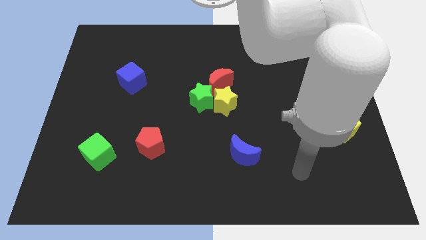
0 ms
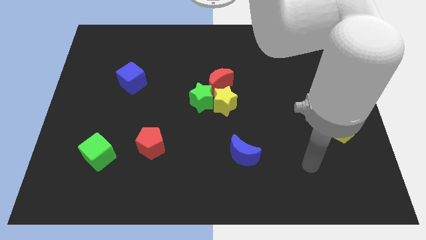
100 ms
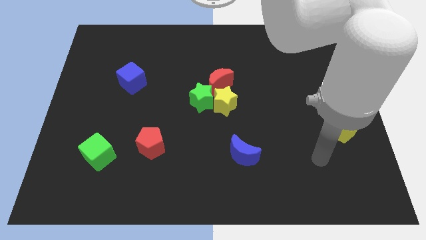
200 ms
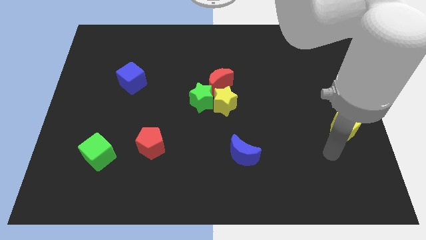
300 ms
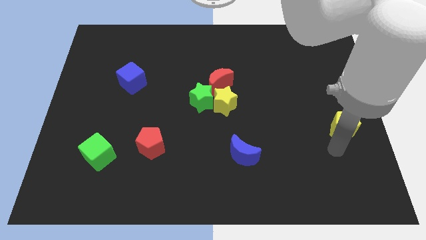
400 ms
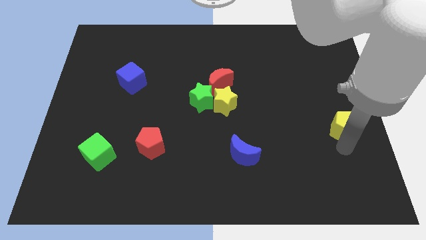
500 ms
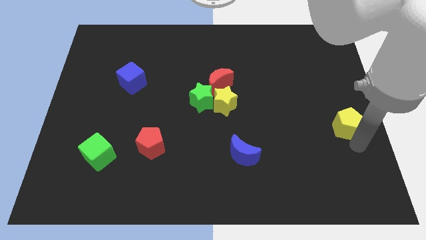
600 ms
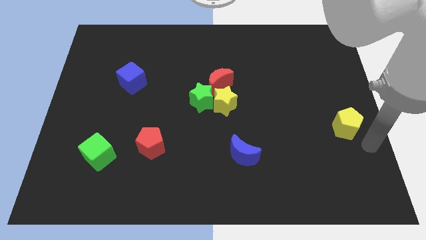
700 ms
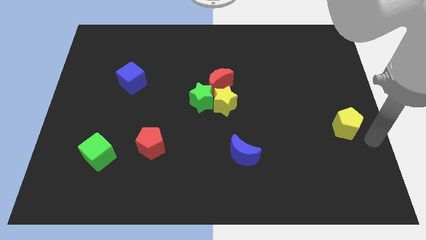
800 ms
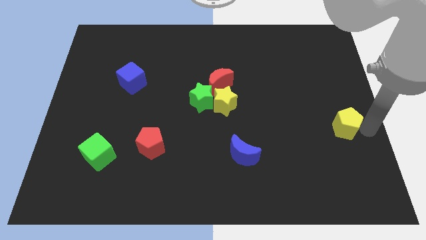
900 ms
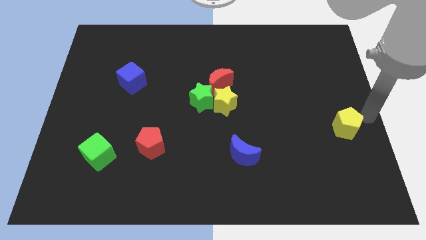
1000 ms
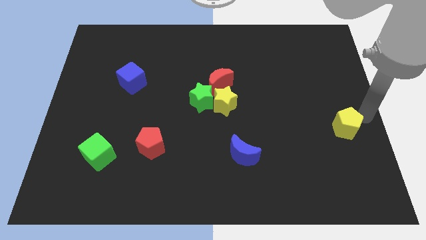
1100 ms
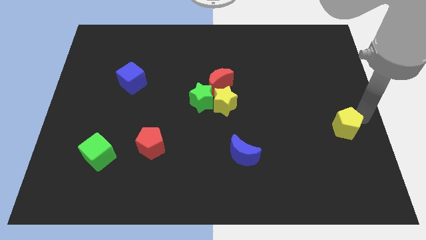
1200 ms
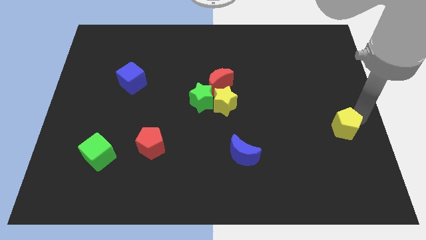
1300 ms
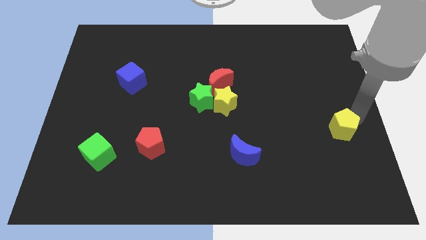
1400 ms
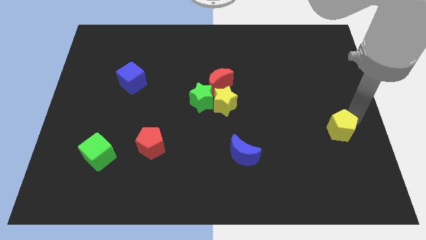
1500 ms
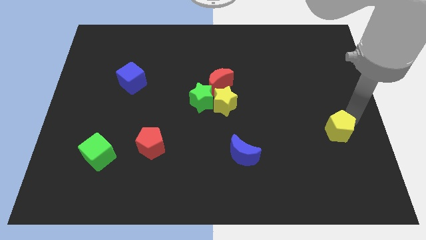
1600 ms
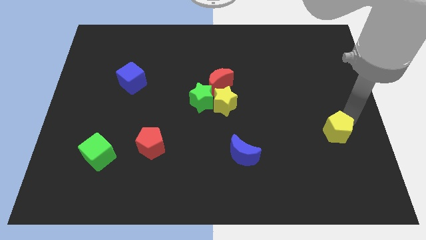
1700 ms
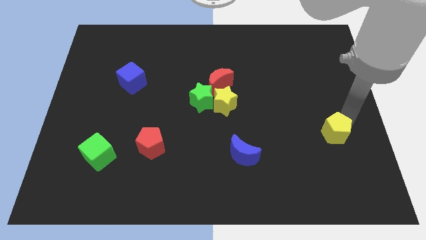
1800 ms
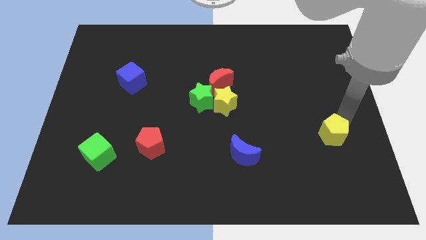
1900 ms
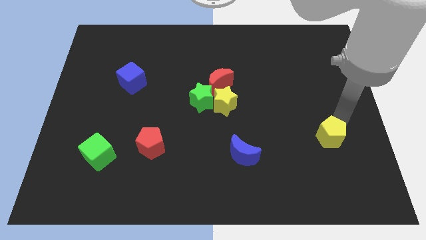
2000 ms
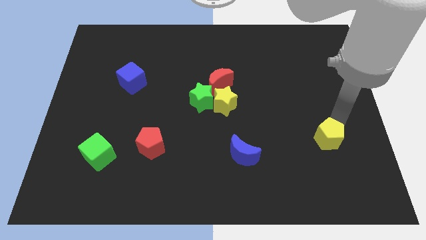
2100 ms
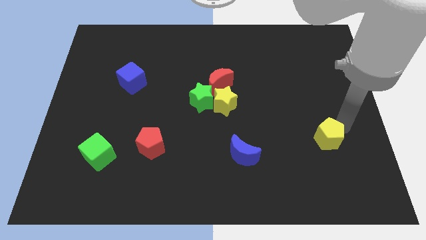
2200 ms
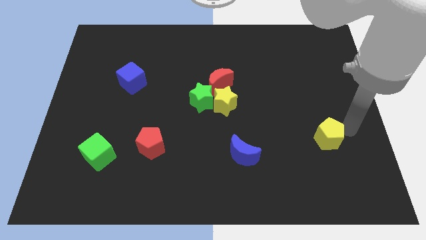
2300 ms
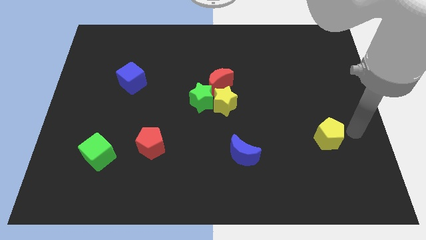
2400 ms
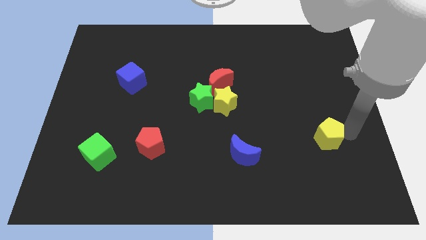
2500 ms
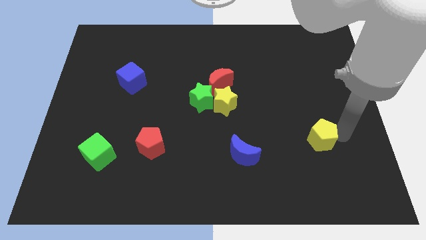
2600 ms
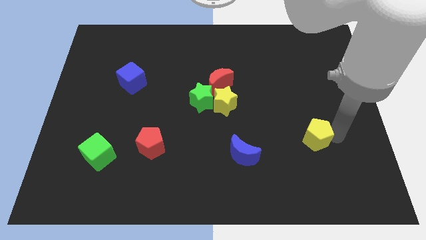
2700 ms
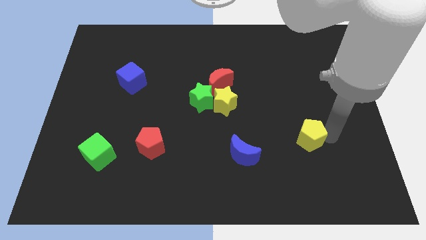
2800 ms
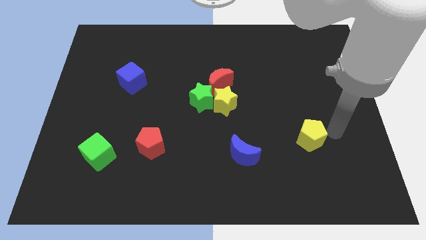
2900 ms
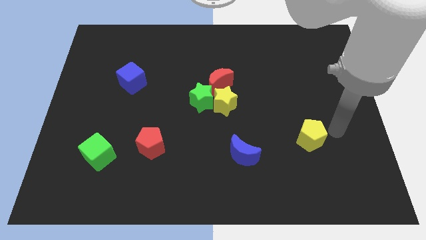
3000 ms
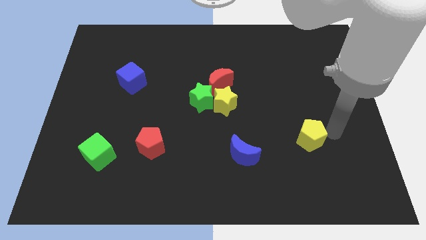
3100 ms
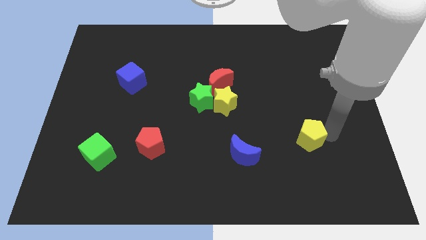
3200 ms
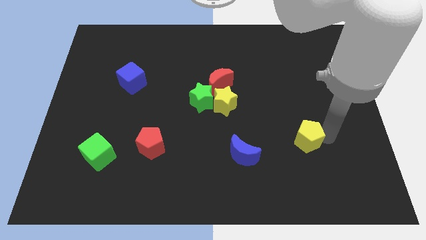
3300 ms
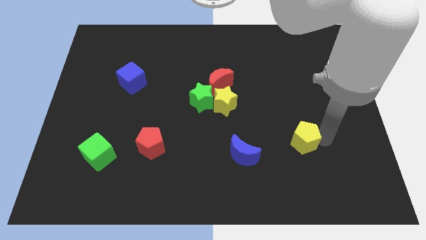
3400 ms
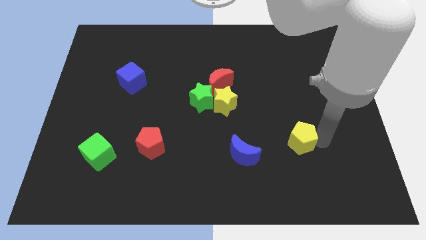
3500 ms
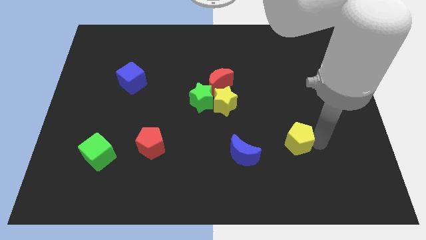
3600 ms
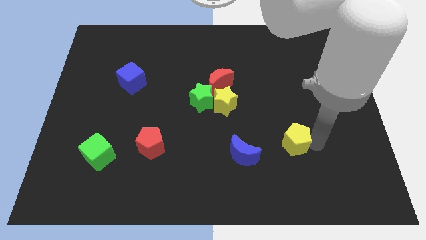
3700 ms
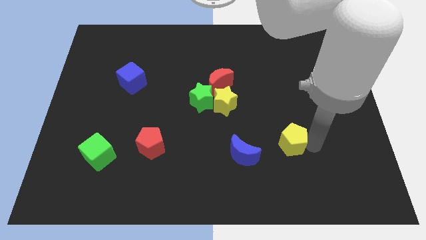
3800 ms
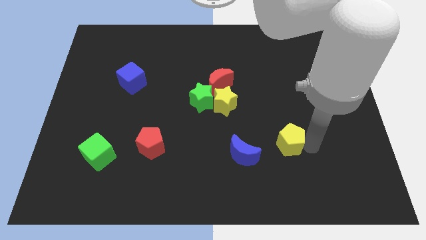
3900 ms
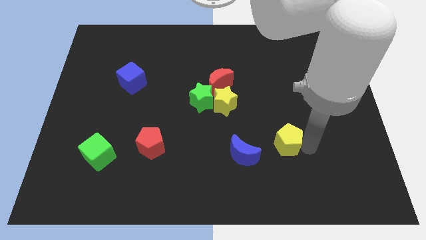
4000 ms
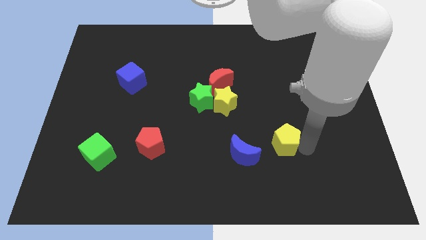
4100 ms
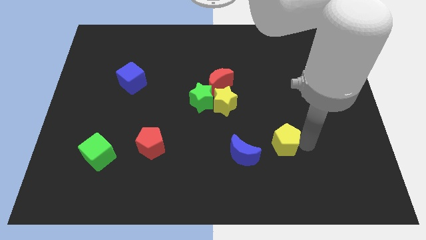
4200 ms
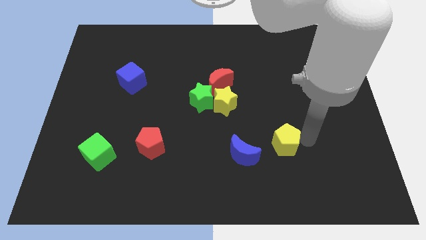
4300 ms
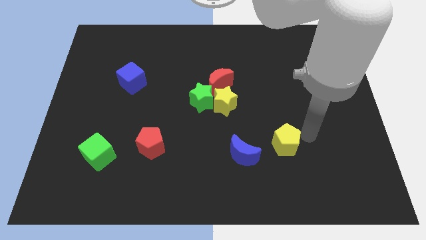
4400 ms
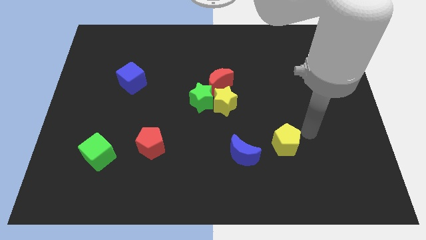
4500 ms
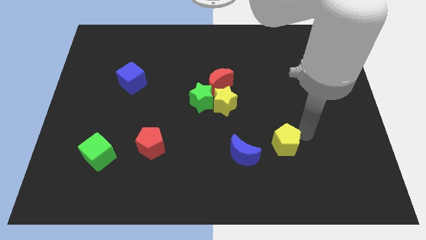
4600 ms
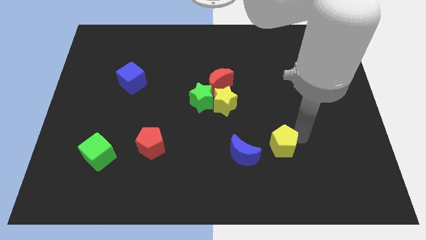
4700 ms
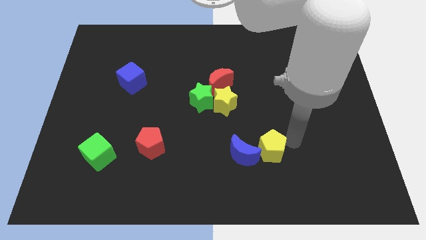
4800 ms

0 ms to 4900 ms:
put the yellow pentagon next to the blue moon

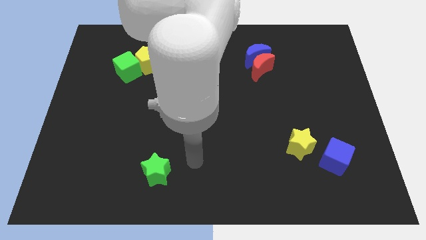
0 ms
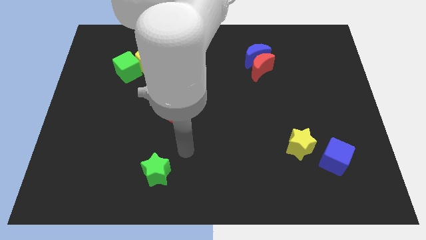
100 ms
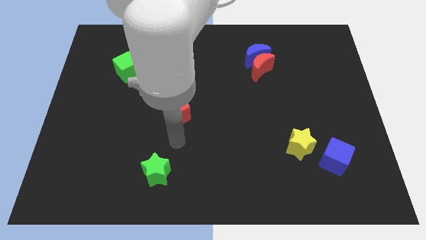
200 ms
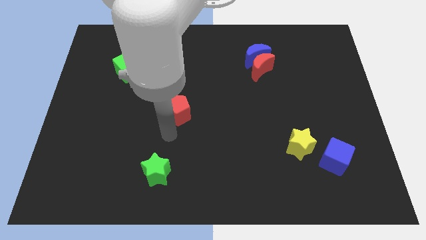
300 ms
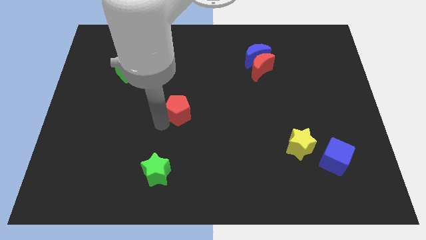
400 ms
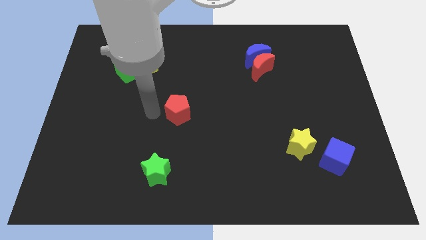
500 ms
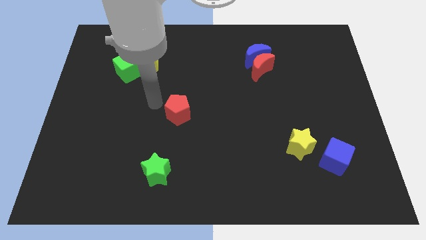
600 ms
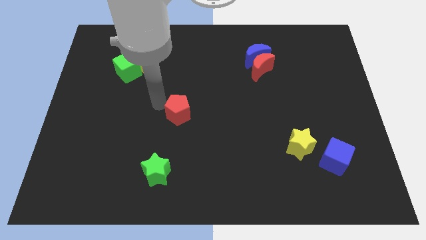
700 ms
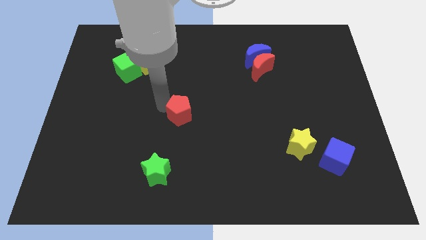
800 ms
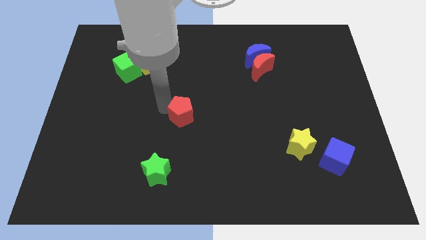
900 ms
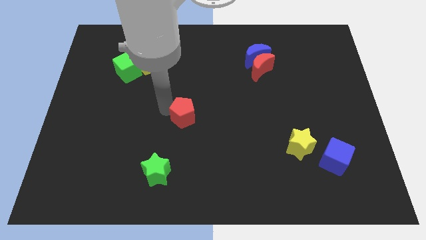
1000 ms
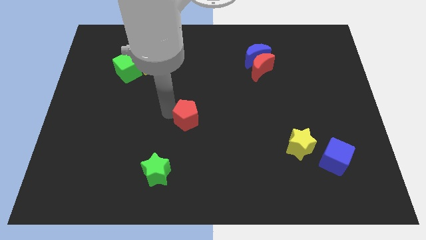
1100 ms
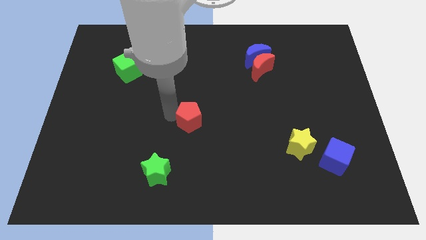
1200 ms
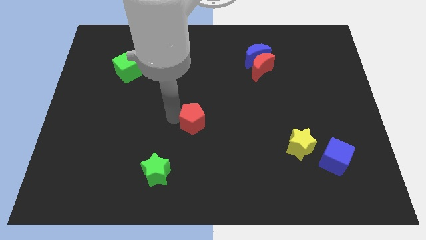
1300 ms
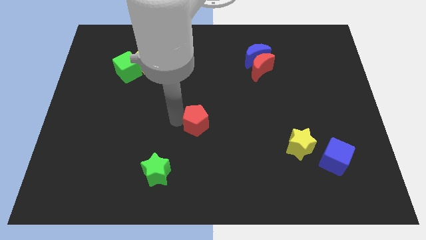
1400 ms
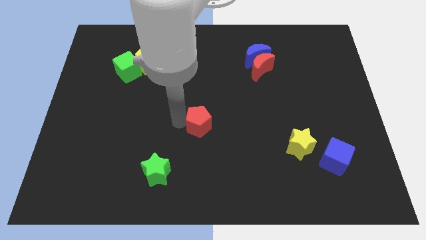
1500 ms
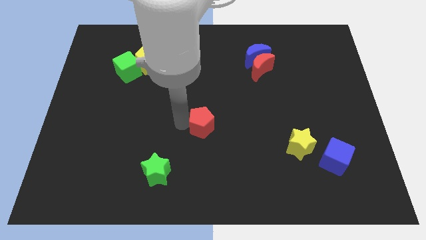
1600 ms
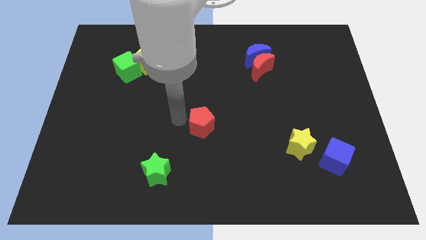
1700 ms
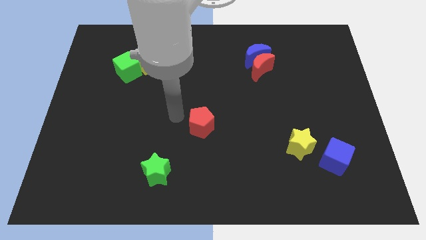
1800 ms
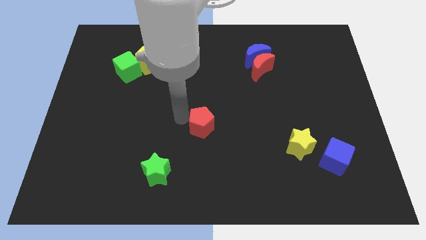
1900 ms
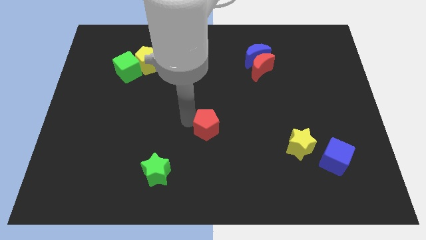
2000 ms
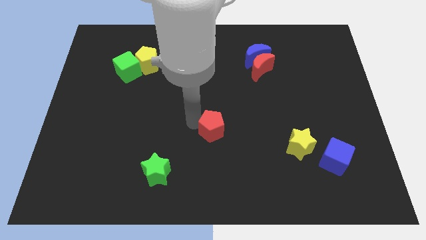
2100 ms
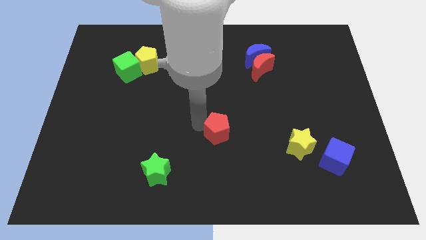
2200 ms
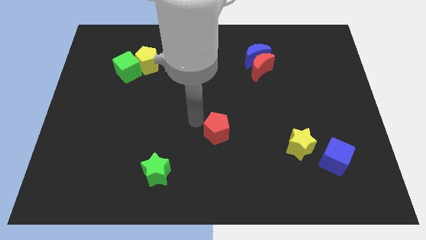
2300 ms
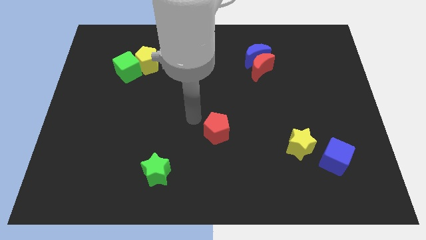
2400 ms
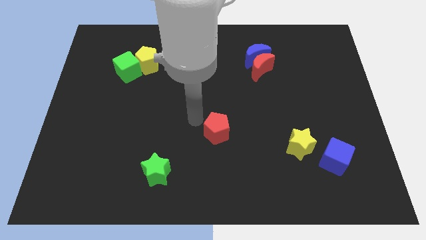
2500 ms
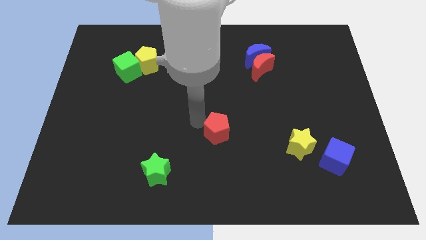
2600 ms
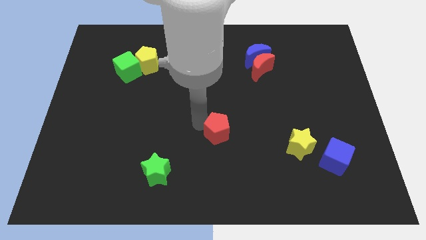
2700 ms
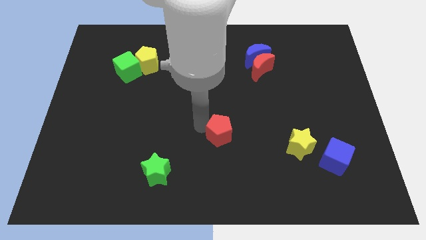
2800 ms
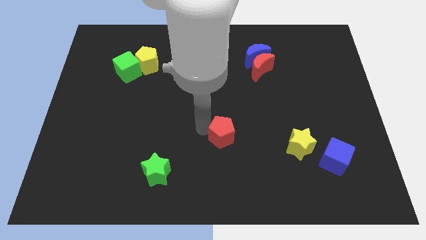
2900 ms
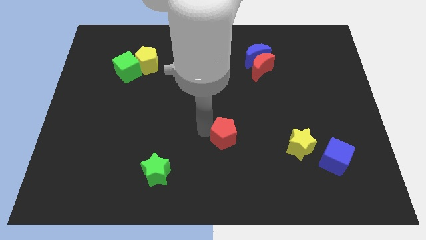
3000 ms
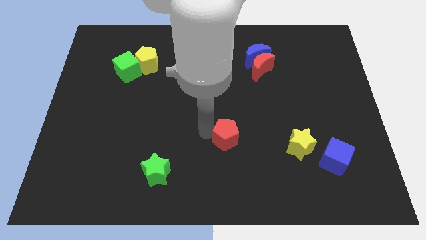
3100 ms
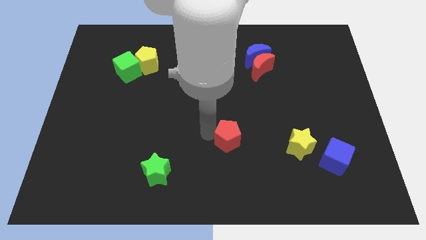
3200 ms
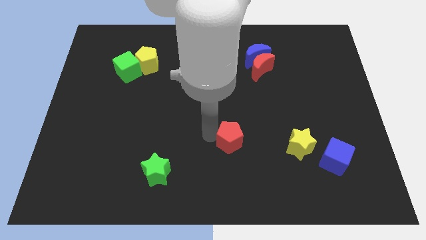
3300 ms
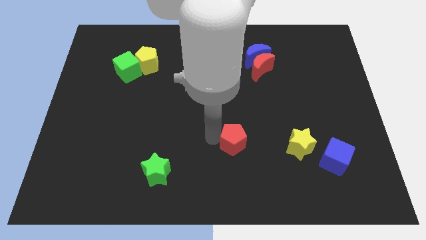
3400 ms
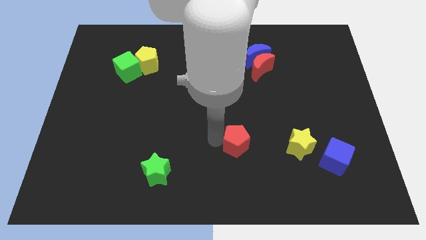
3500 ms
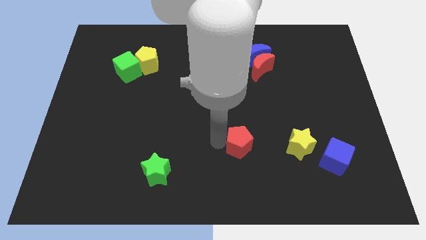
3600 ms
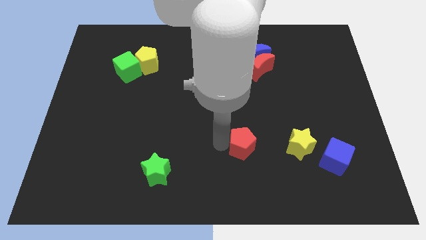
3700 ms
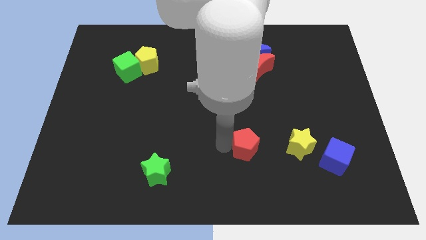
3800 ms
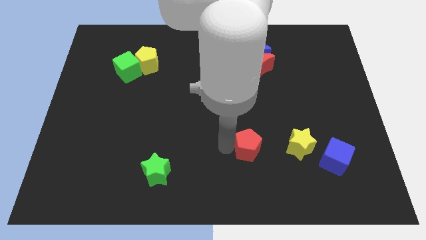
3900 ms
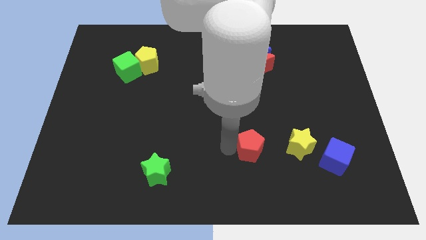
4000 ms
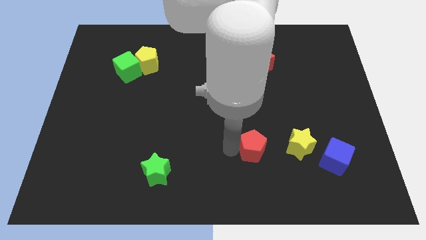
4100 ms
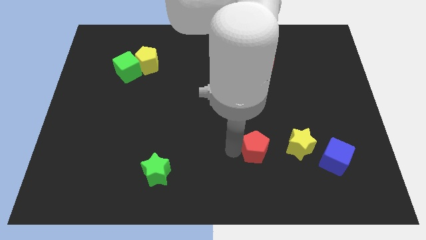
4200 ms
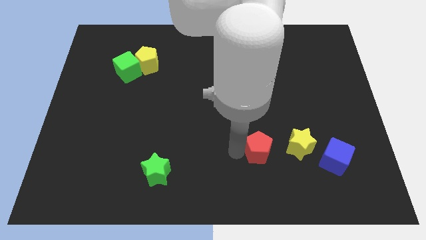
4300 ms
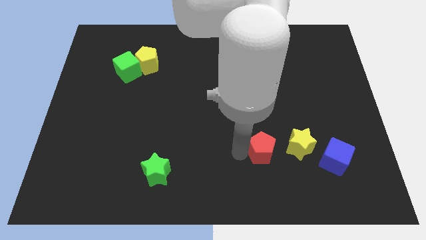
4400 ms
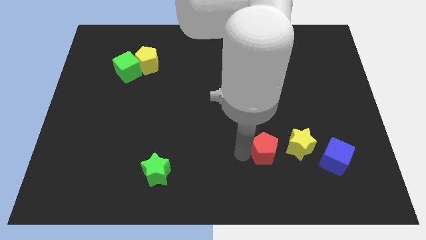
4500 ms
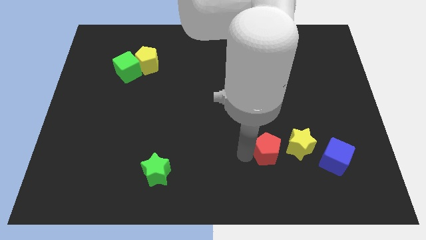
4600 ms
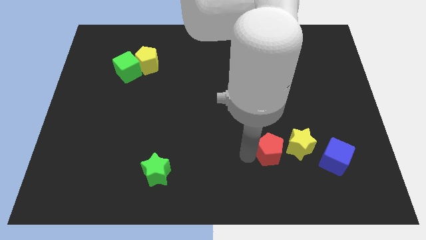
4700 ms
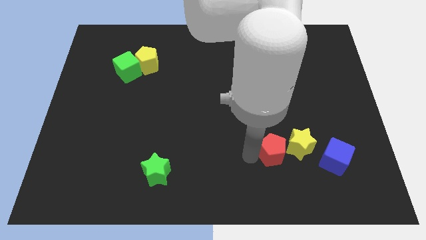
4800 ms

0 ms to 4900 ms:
move the red pentagon close to the yellow star
